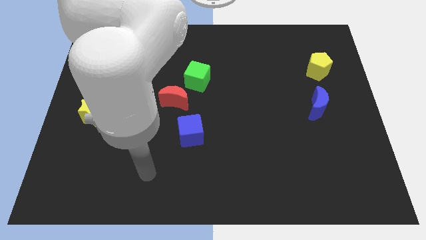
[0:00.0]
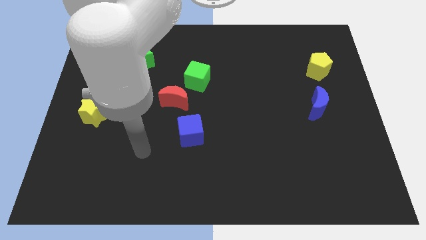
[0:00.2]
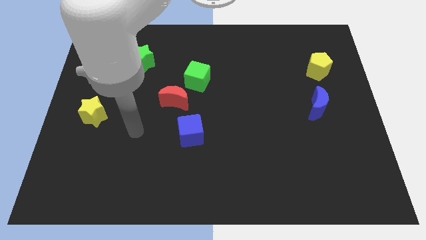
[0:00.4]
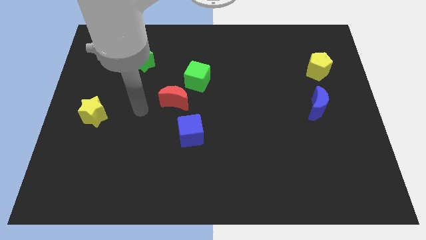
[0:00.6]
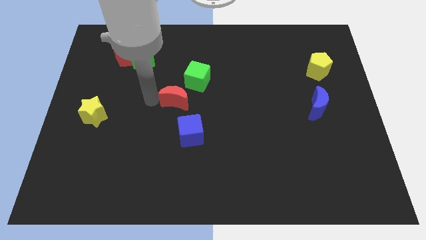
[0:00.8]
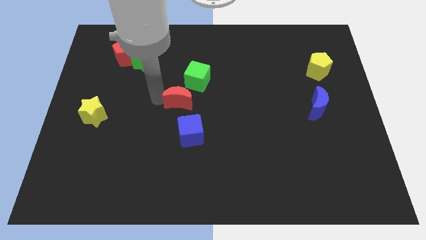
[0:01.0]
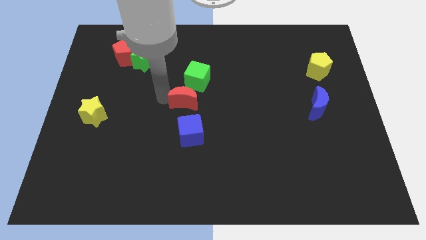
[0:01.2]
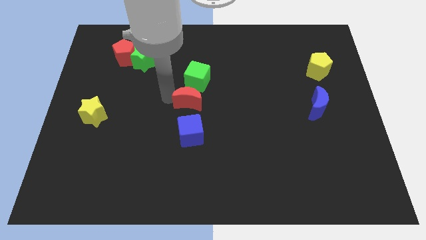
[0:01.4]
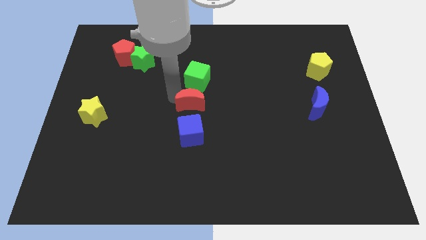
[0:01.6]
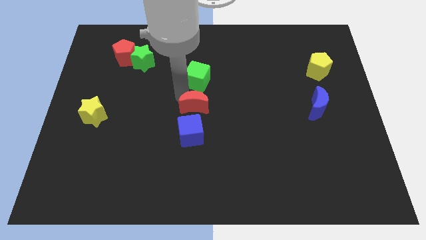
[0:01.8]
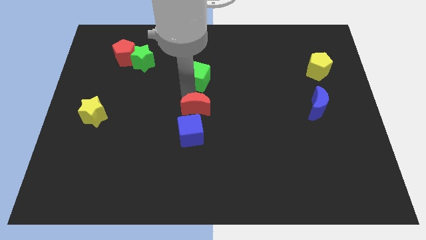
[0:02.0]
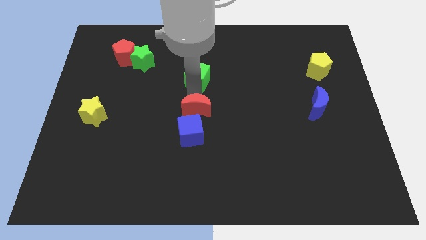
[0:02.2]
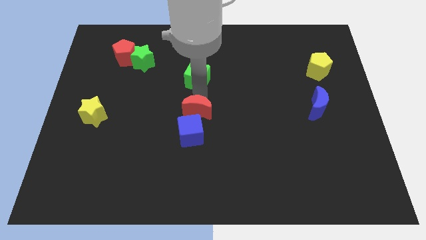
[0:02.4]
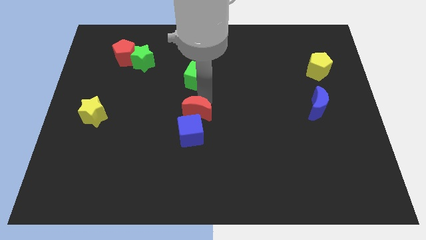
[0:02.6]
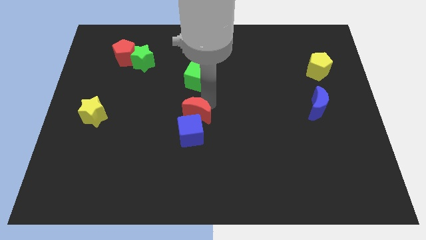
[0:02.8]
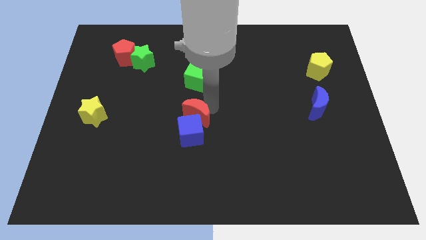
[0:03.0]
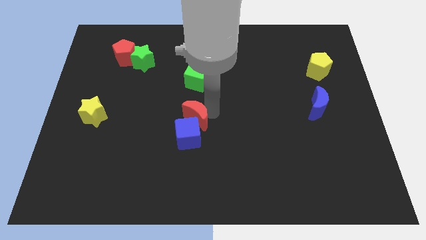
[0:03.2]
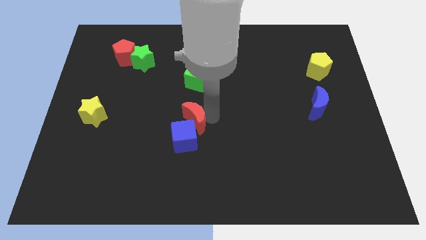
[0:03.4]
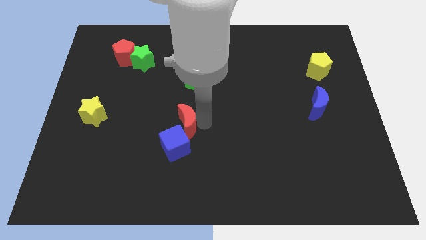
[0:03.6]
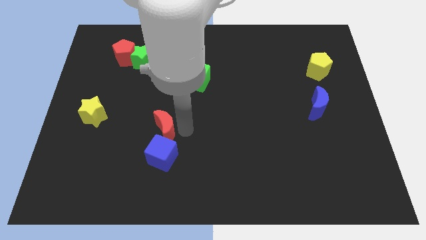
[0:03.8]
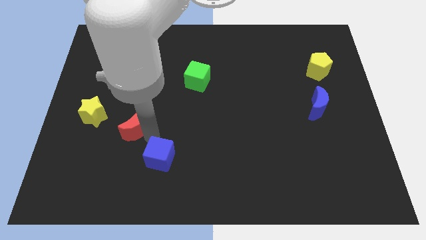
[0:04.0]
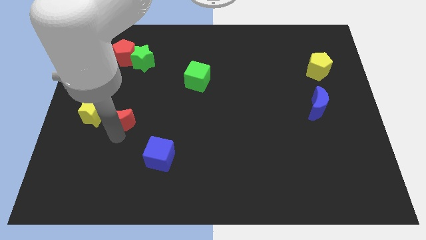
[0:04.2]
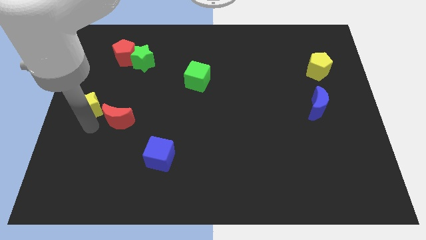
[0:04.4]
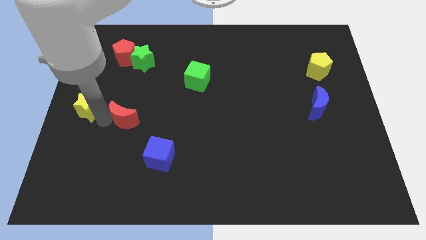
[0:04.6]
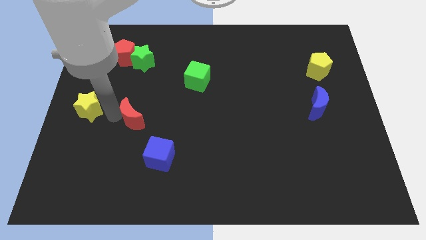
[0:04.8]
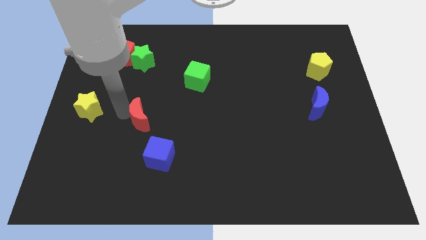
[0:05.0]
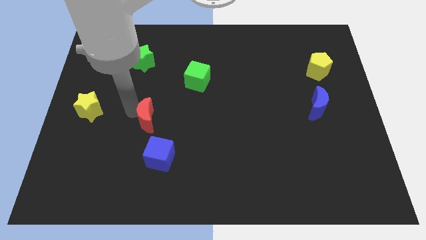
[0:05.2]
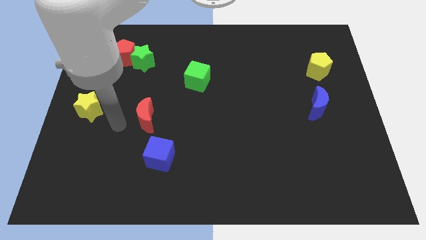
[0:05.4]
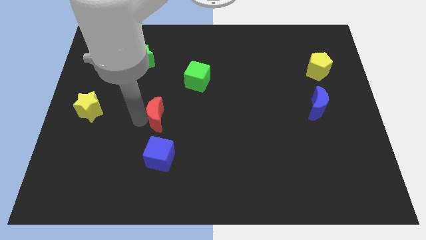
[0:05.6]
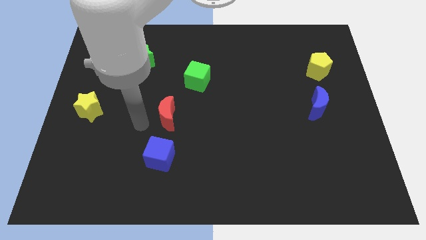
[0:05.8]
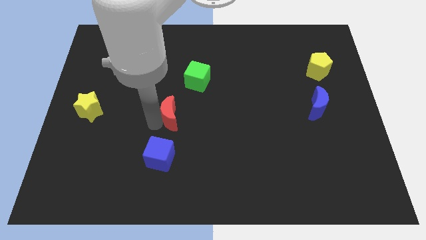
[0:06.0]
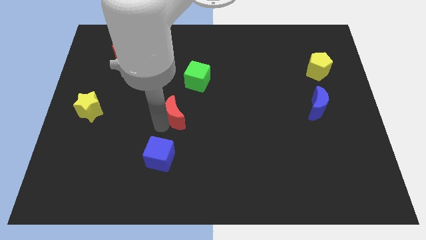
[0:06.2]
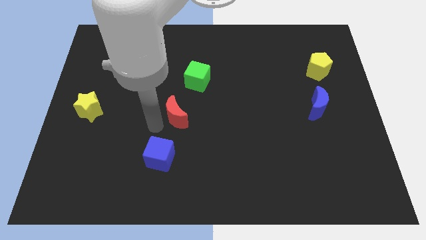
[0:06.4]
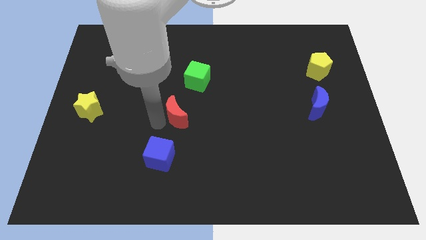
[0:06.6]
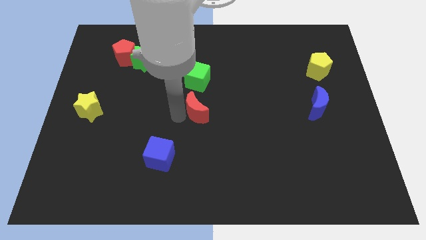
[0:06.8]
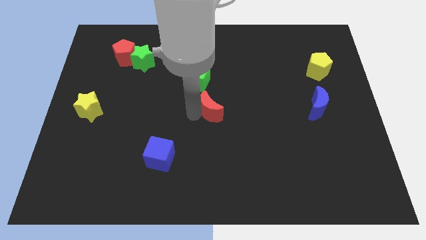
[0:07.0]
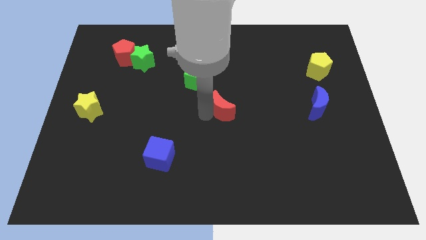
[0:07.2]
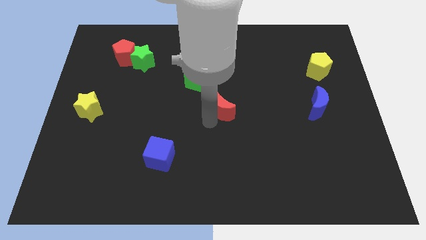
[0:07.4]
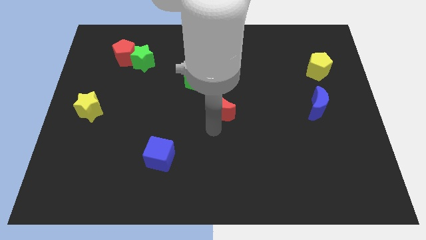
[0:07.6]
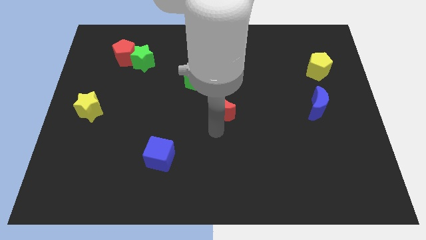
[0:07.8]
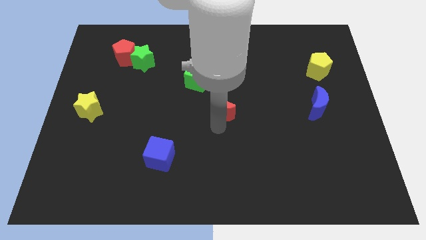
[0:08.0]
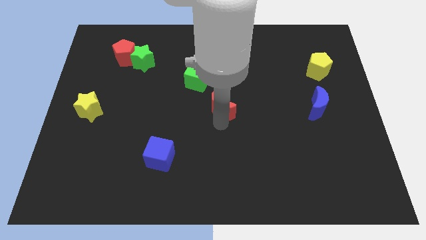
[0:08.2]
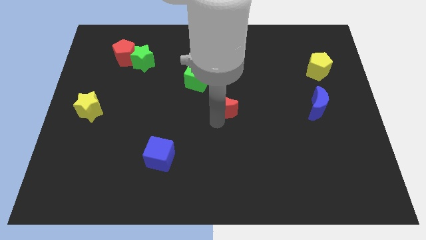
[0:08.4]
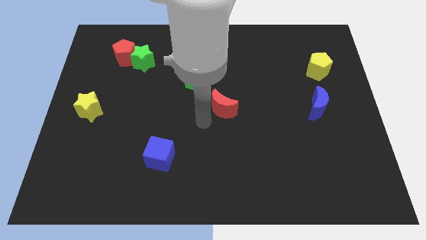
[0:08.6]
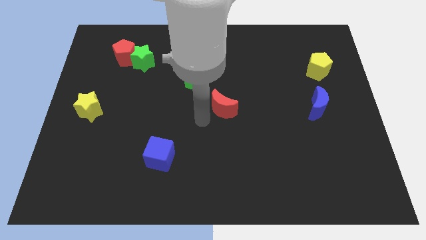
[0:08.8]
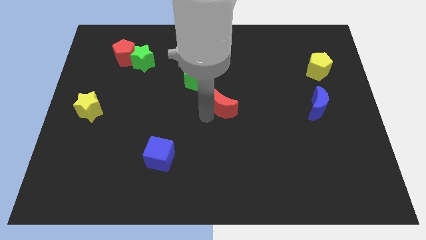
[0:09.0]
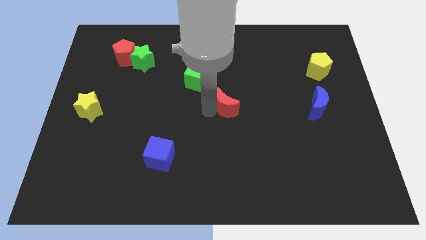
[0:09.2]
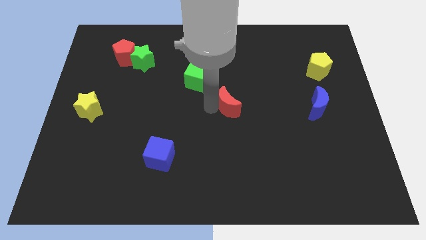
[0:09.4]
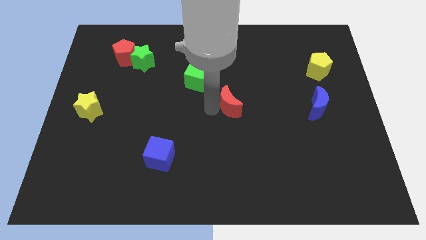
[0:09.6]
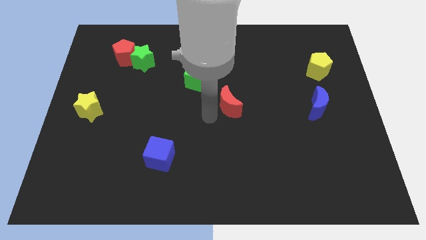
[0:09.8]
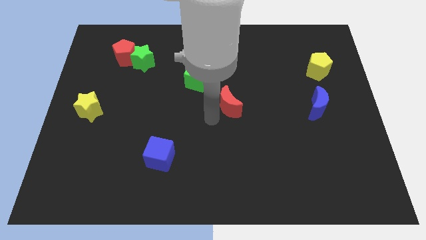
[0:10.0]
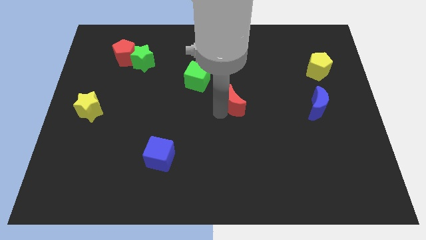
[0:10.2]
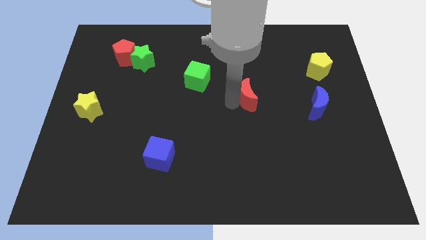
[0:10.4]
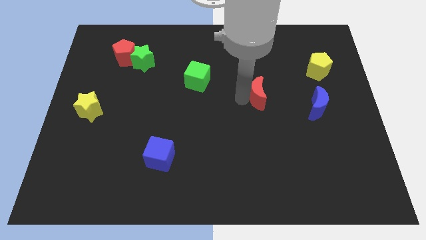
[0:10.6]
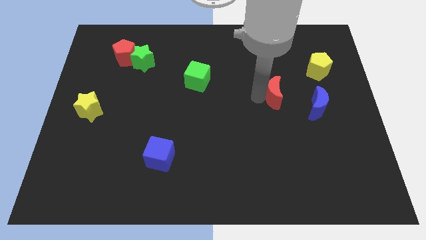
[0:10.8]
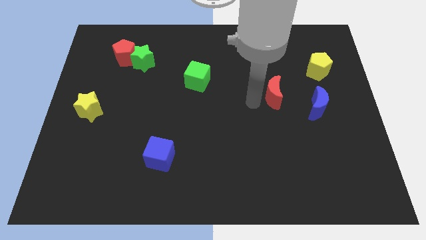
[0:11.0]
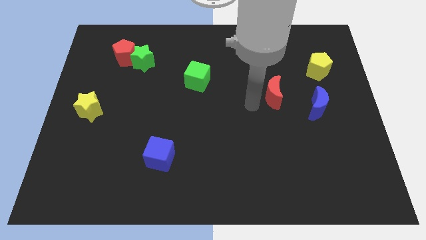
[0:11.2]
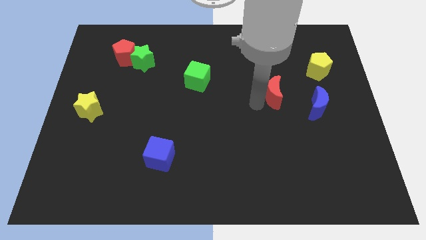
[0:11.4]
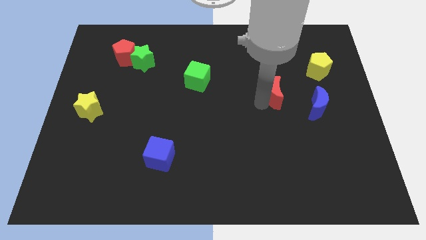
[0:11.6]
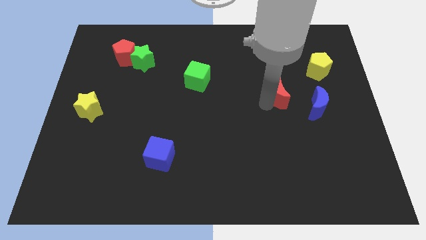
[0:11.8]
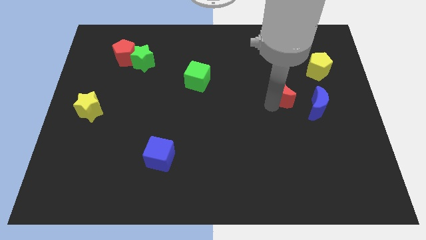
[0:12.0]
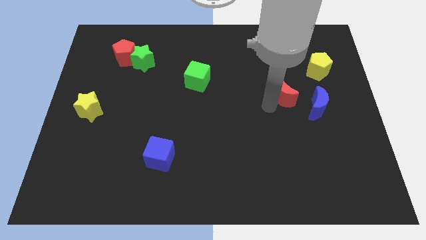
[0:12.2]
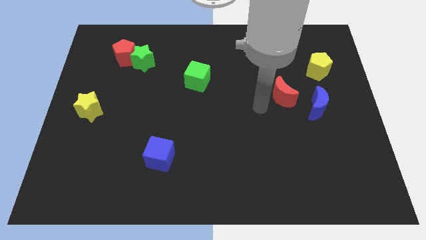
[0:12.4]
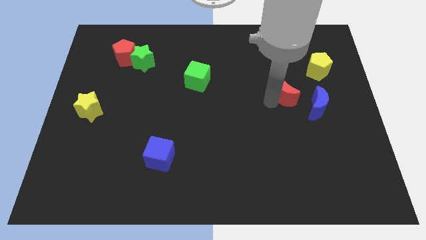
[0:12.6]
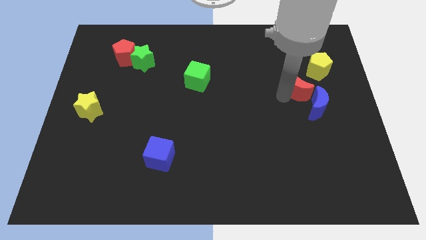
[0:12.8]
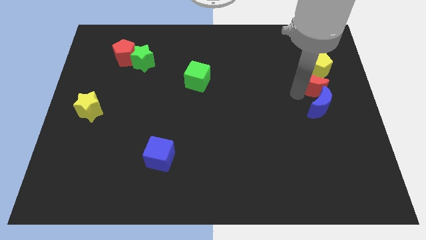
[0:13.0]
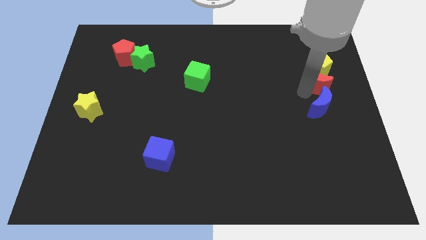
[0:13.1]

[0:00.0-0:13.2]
push the red moon close to the yellow pentagon

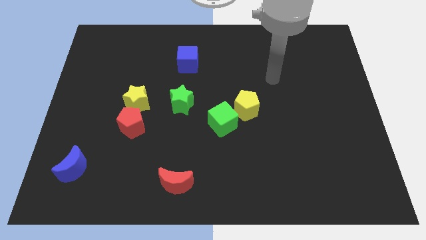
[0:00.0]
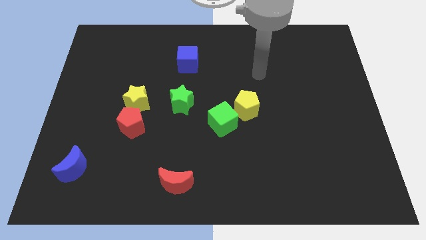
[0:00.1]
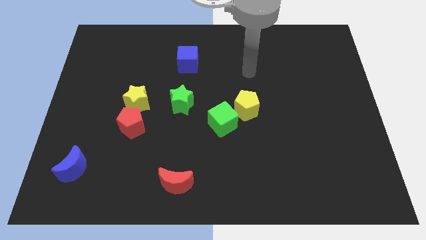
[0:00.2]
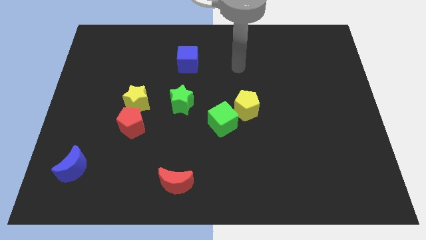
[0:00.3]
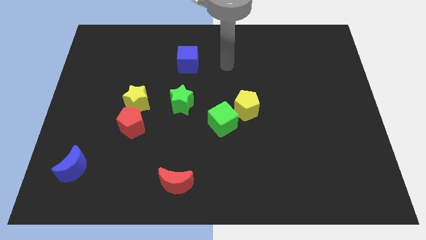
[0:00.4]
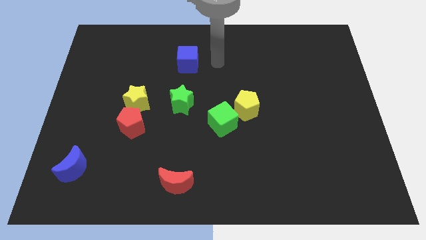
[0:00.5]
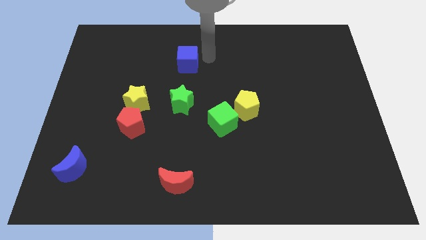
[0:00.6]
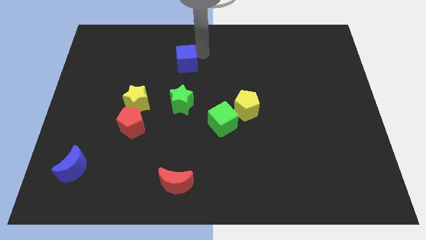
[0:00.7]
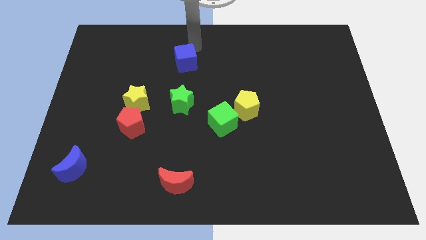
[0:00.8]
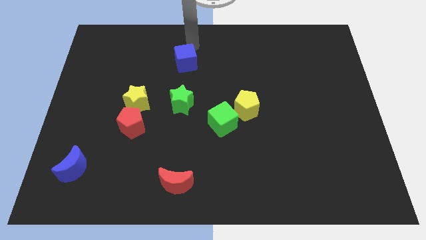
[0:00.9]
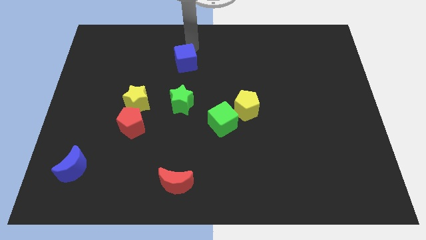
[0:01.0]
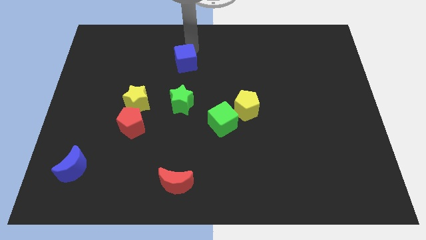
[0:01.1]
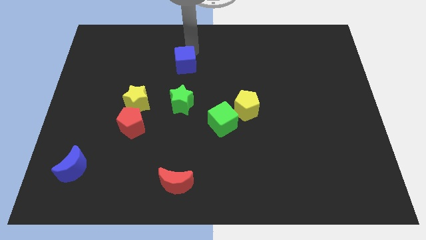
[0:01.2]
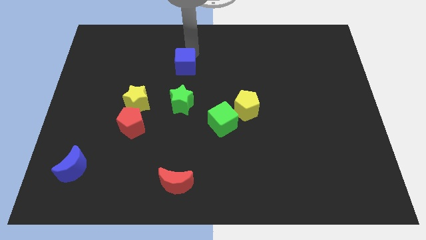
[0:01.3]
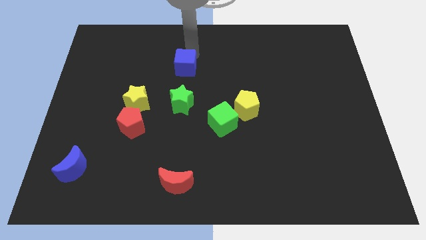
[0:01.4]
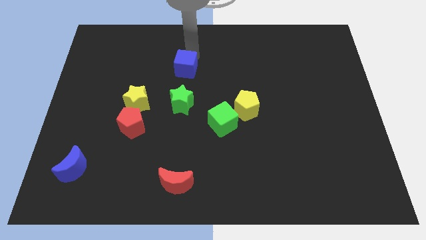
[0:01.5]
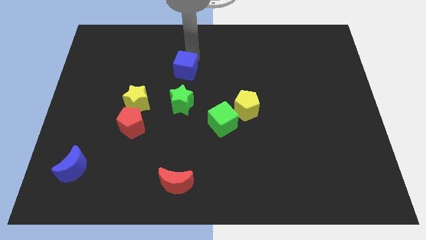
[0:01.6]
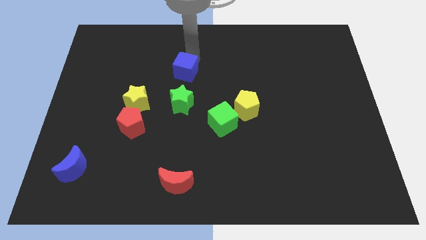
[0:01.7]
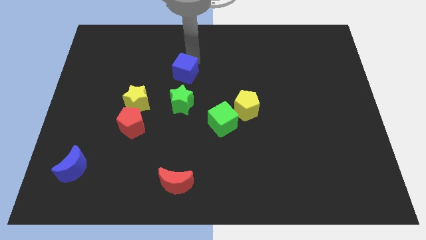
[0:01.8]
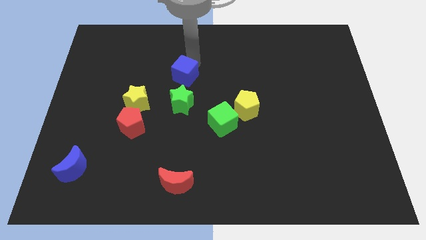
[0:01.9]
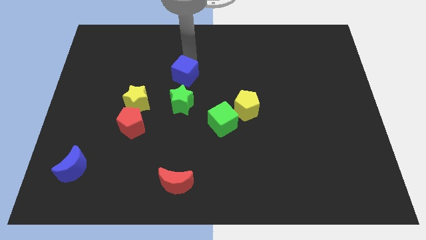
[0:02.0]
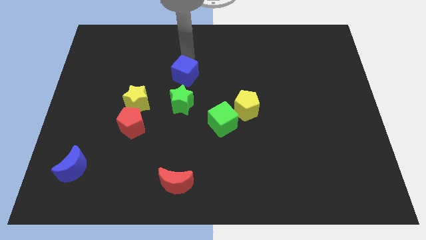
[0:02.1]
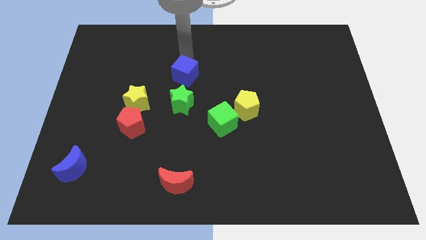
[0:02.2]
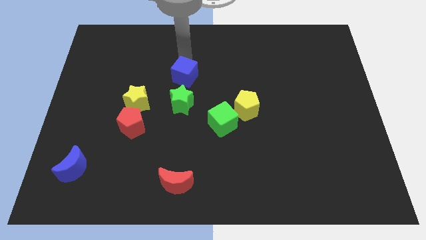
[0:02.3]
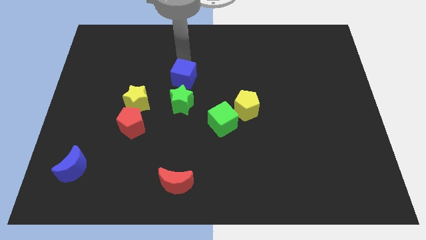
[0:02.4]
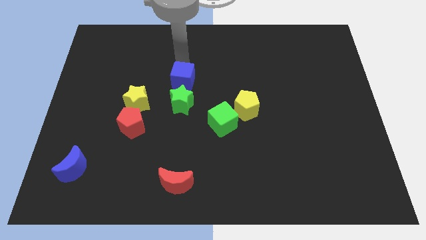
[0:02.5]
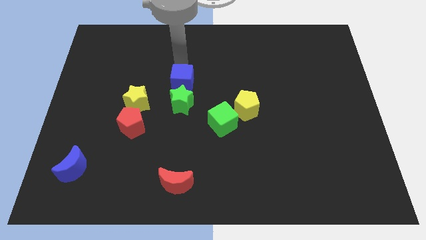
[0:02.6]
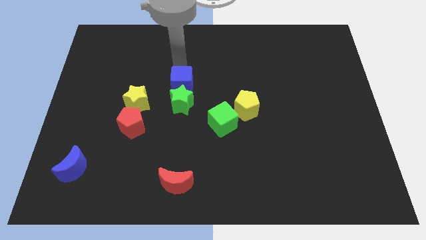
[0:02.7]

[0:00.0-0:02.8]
move the blue cube towards the green star
